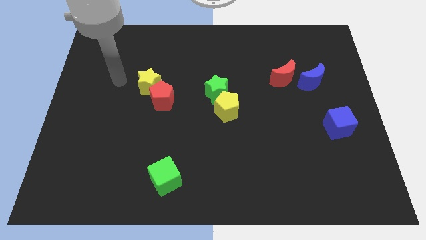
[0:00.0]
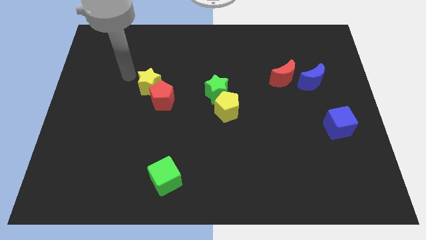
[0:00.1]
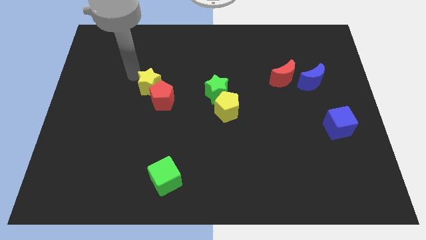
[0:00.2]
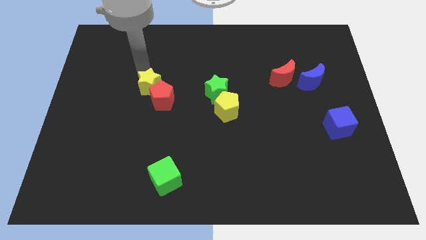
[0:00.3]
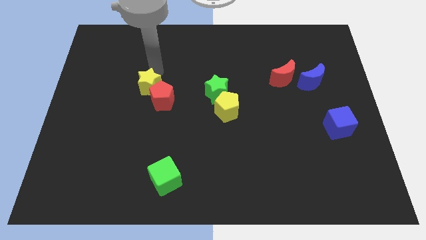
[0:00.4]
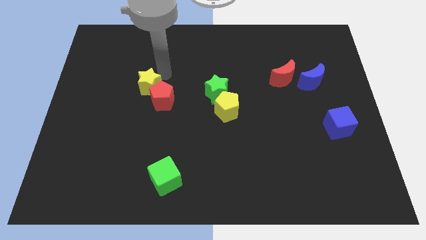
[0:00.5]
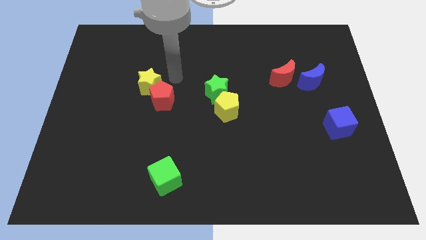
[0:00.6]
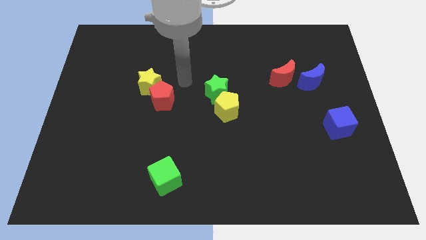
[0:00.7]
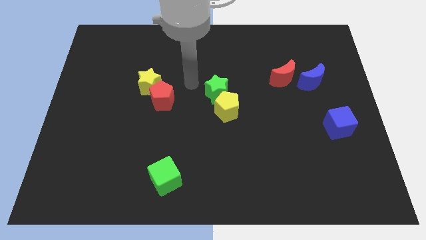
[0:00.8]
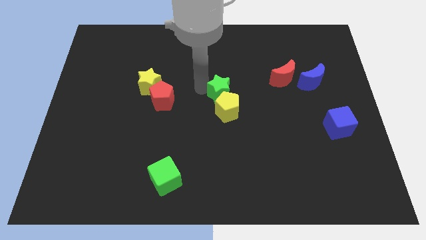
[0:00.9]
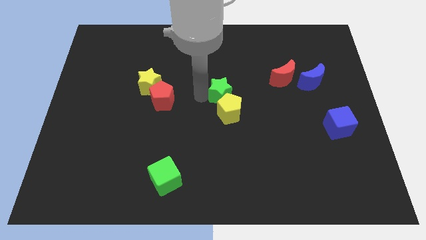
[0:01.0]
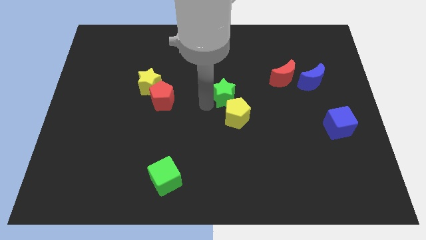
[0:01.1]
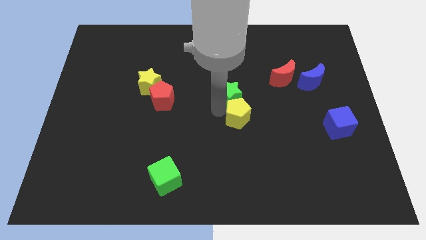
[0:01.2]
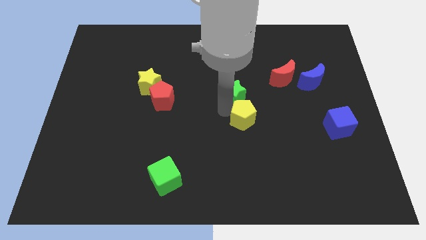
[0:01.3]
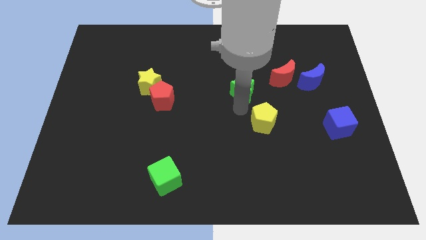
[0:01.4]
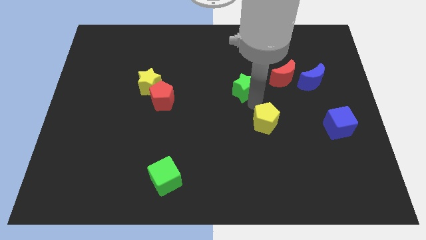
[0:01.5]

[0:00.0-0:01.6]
move the green star away from the yellow pentagon

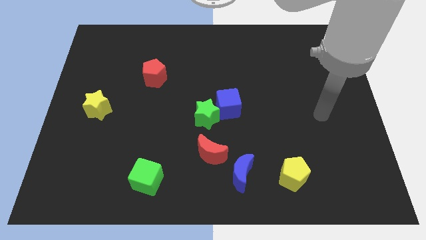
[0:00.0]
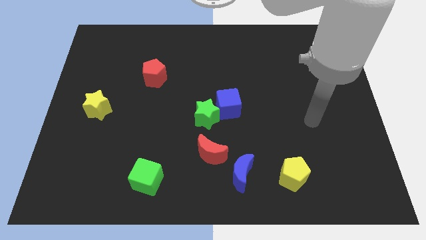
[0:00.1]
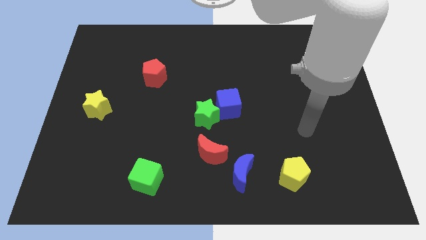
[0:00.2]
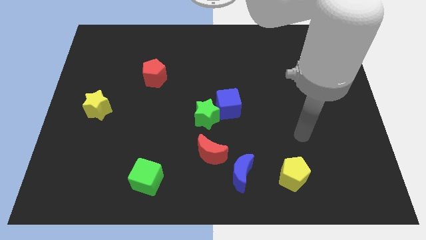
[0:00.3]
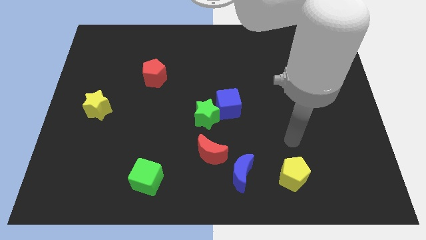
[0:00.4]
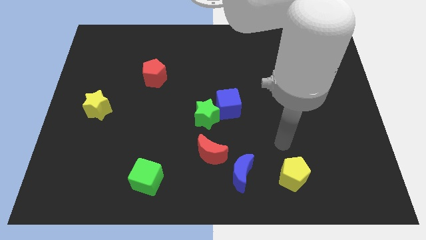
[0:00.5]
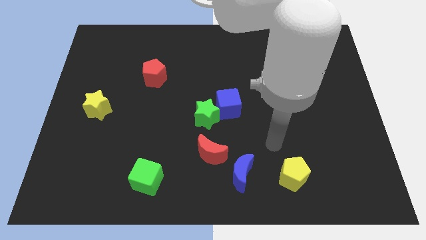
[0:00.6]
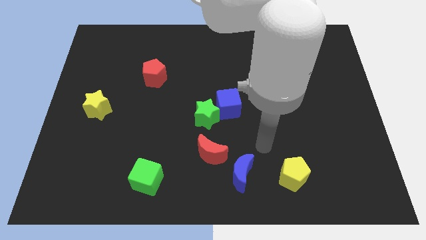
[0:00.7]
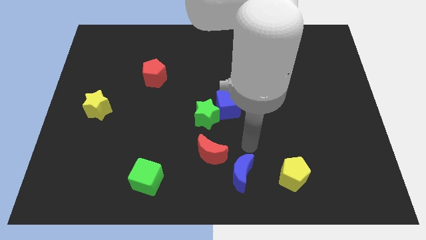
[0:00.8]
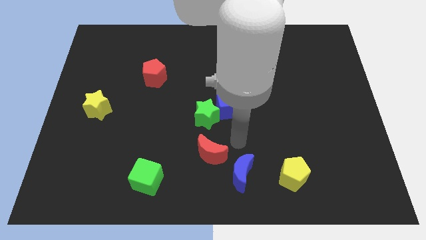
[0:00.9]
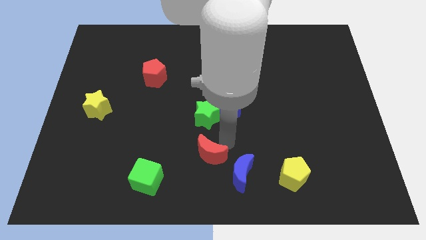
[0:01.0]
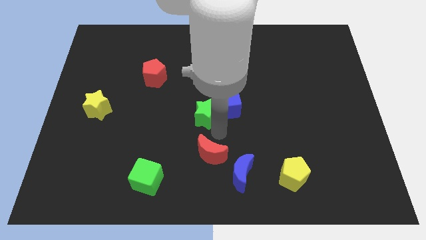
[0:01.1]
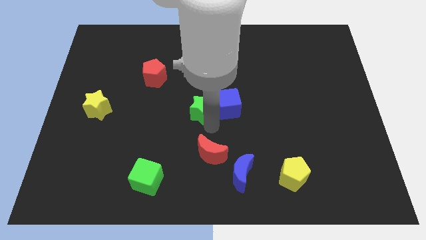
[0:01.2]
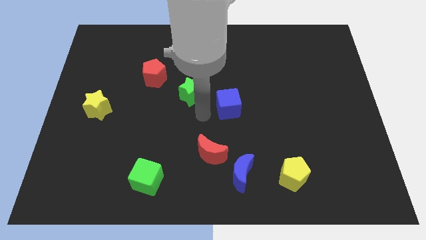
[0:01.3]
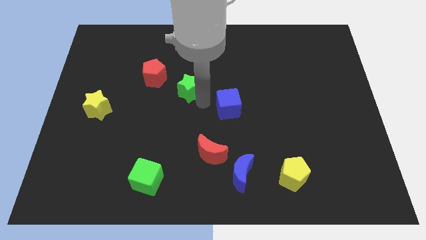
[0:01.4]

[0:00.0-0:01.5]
separate the blue cube from the green star

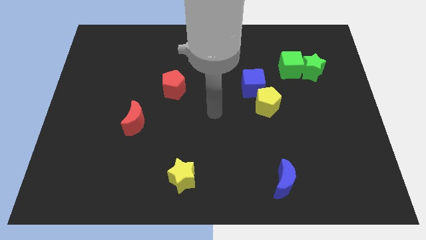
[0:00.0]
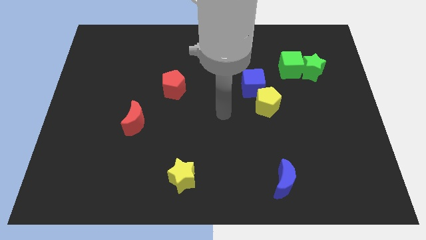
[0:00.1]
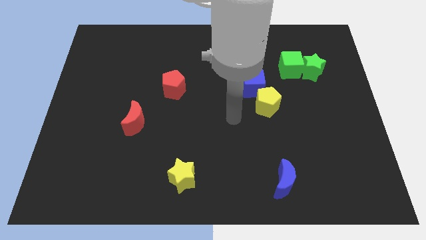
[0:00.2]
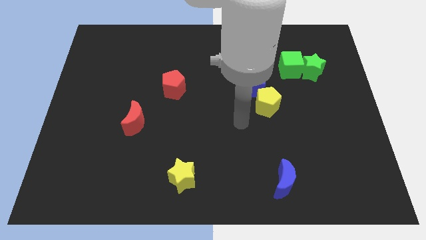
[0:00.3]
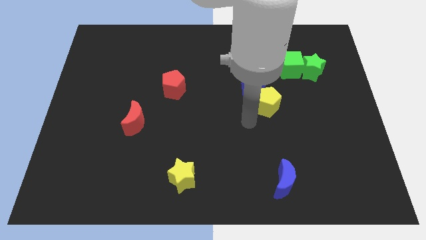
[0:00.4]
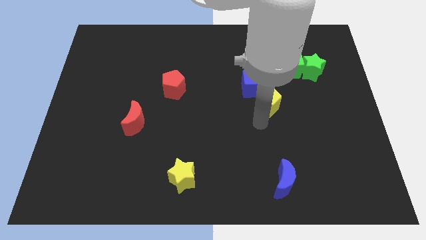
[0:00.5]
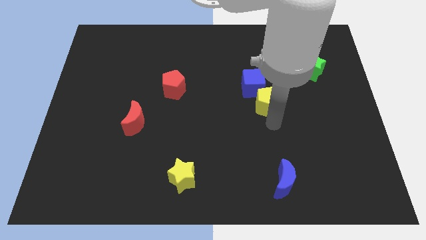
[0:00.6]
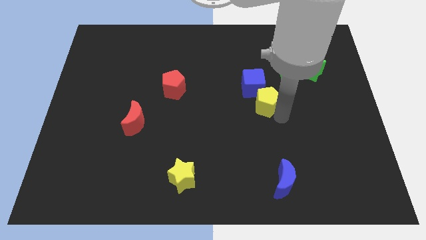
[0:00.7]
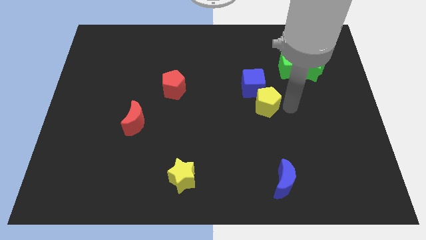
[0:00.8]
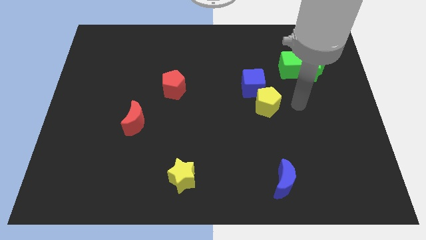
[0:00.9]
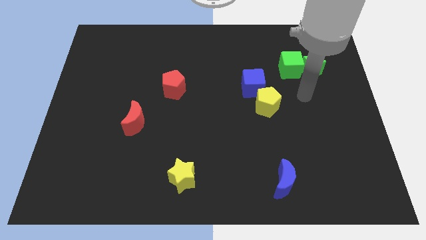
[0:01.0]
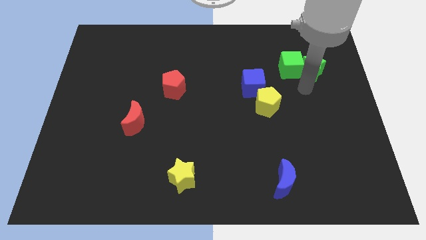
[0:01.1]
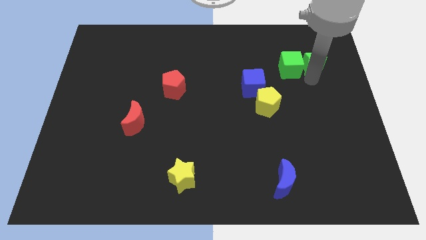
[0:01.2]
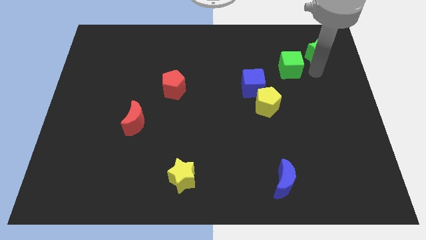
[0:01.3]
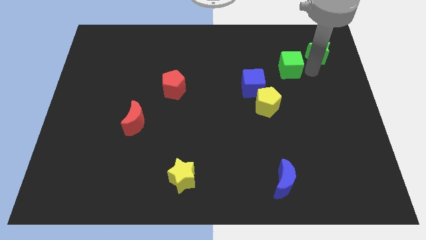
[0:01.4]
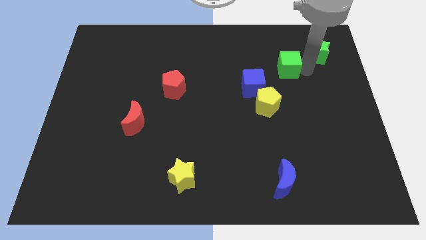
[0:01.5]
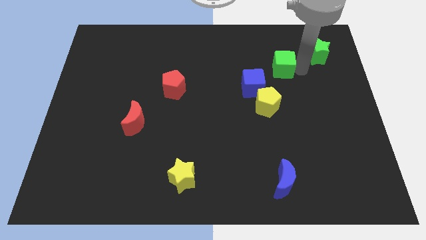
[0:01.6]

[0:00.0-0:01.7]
move the green cube away from the green star

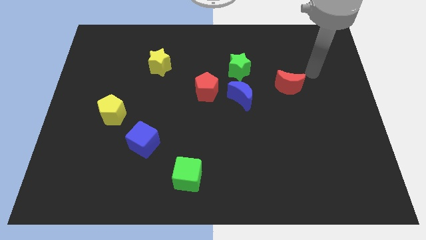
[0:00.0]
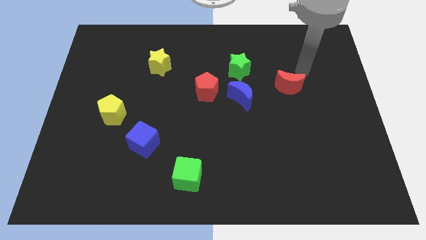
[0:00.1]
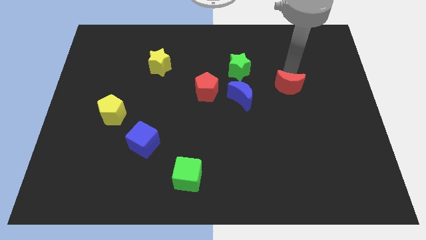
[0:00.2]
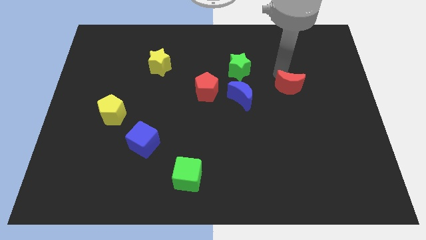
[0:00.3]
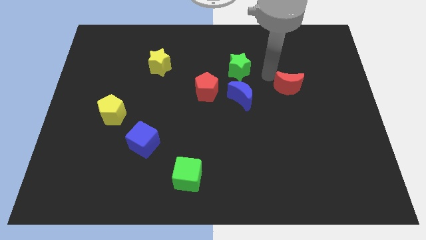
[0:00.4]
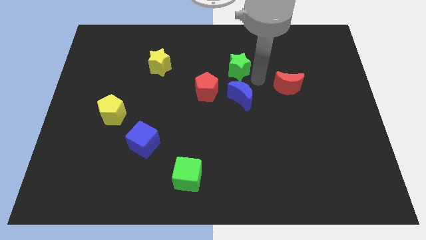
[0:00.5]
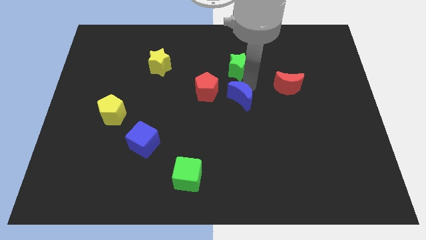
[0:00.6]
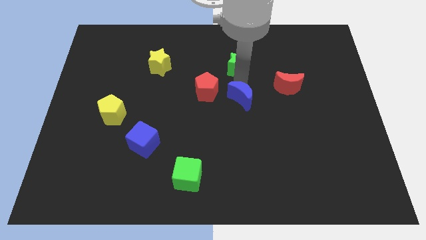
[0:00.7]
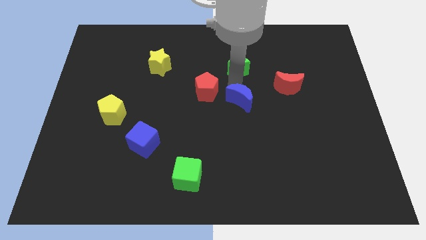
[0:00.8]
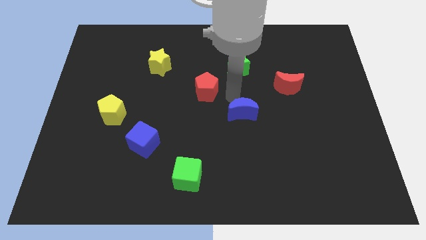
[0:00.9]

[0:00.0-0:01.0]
pull the red pentagon apart from the blue moon

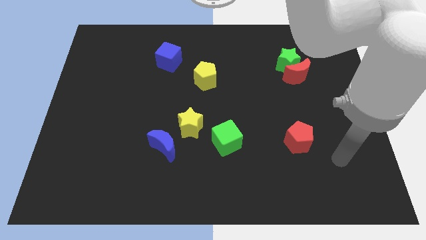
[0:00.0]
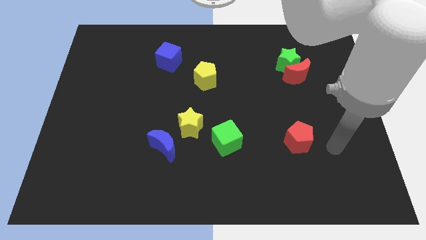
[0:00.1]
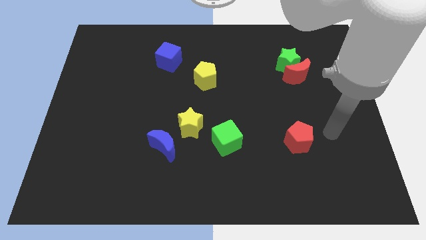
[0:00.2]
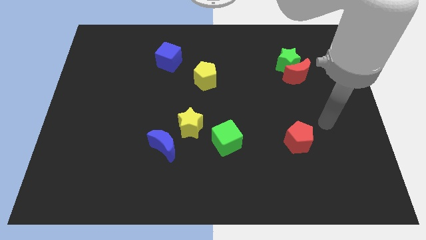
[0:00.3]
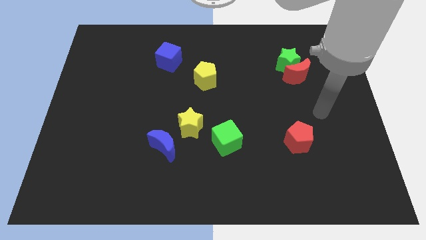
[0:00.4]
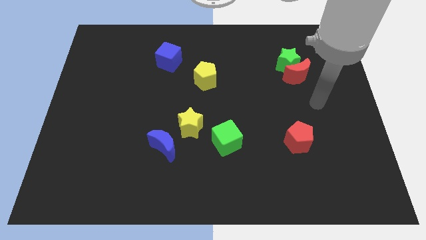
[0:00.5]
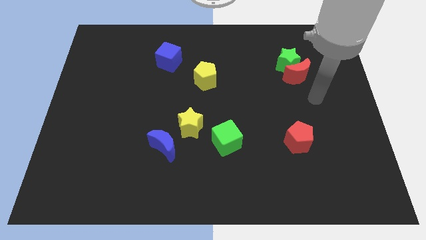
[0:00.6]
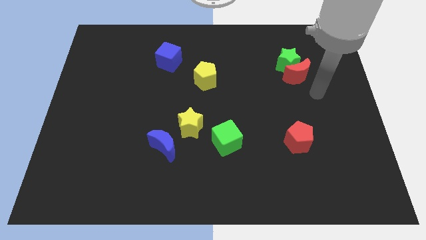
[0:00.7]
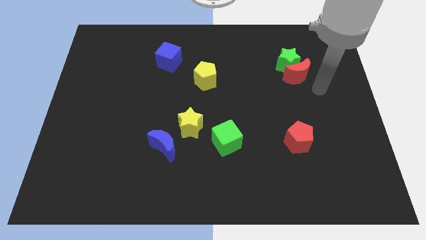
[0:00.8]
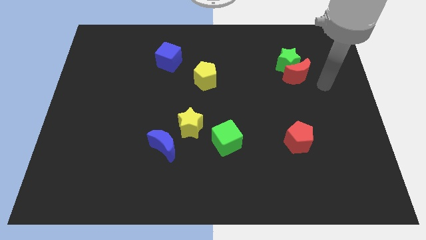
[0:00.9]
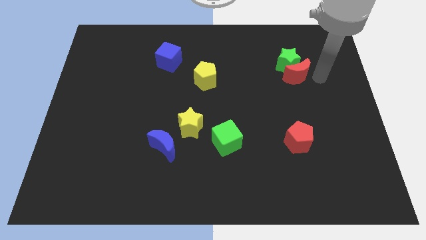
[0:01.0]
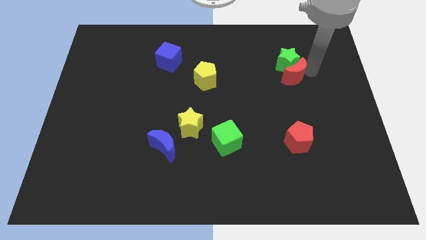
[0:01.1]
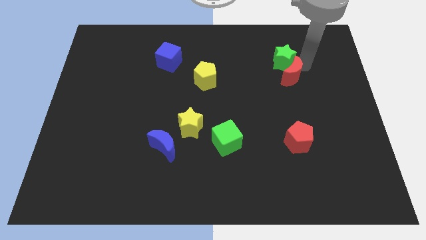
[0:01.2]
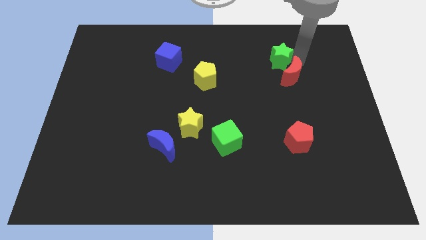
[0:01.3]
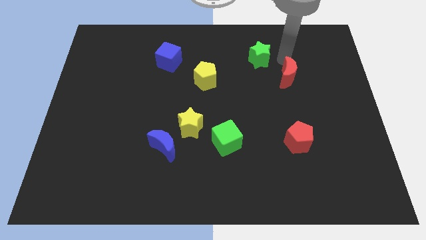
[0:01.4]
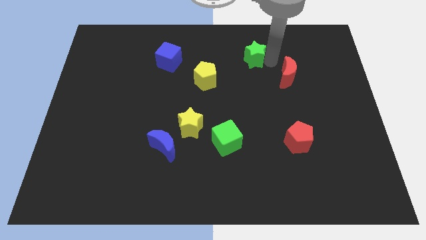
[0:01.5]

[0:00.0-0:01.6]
separate the red moon from the green star

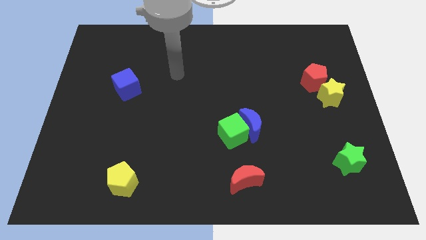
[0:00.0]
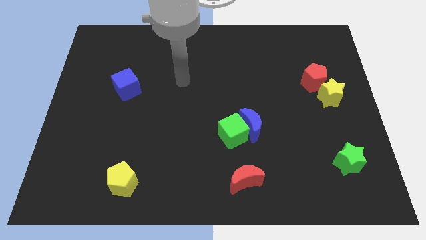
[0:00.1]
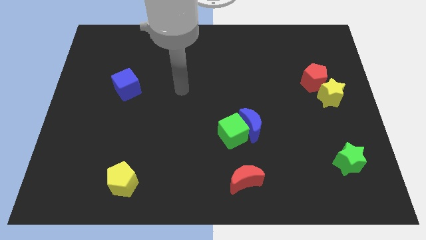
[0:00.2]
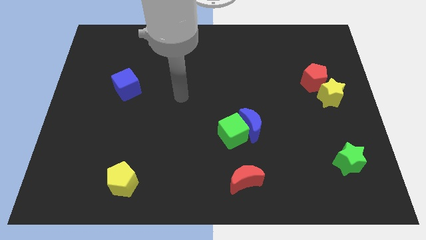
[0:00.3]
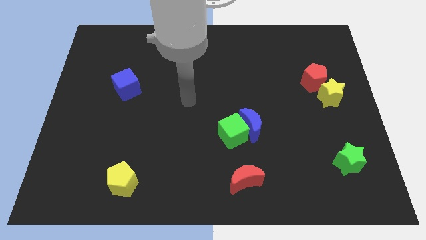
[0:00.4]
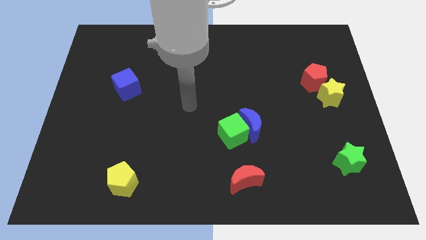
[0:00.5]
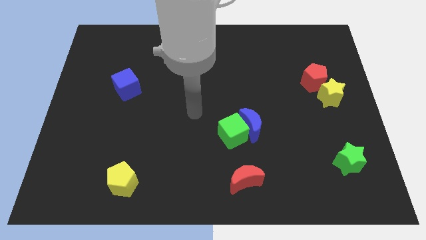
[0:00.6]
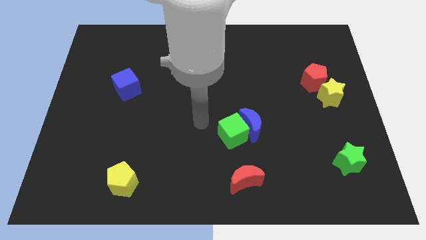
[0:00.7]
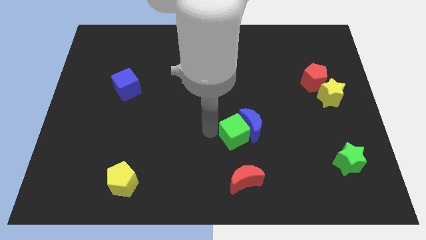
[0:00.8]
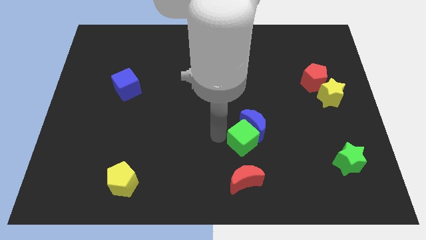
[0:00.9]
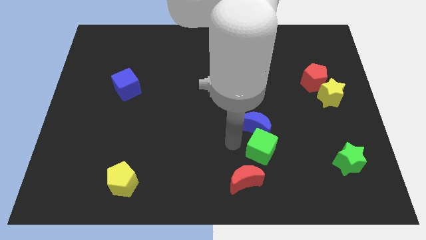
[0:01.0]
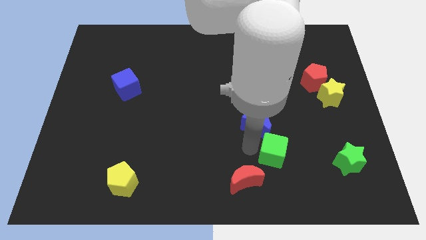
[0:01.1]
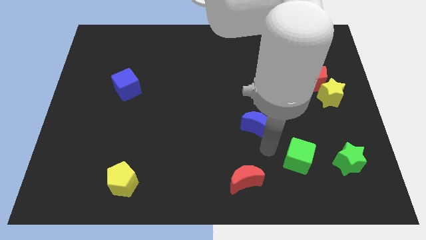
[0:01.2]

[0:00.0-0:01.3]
pull the blue moon apart from the green cube

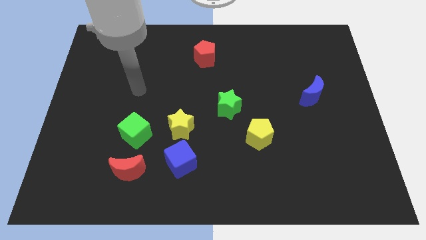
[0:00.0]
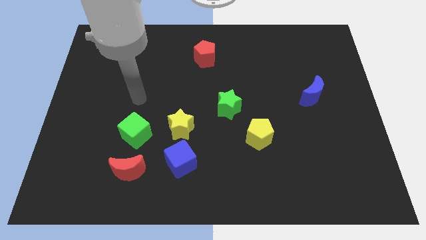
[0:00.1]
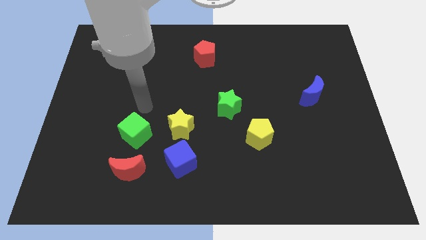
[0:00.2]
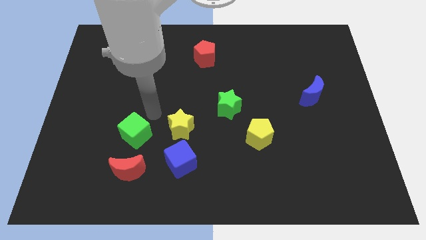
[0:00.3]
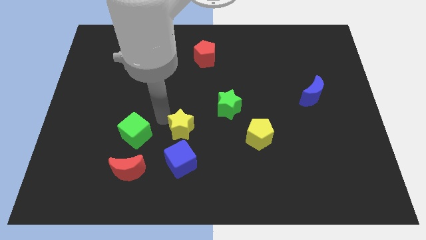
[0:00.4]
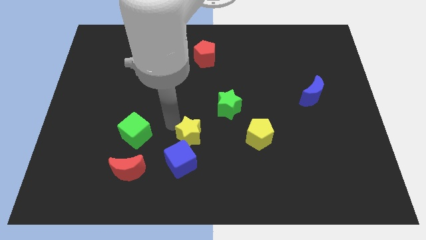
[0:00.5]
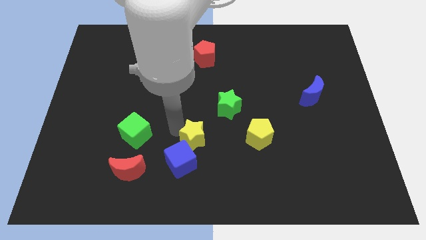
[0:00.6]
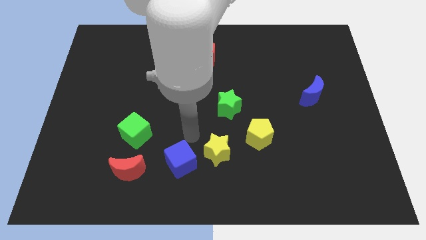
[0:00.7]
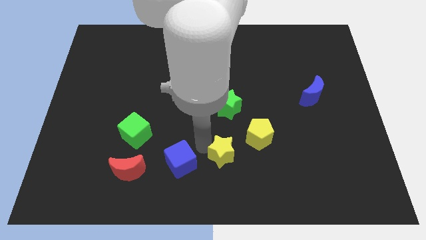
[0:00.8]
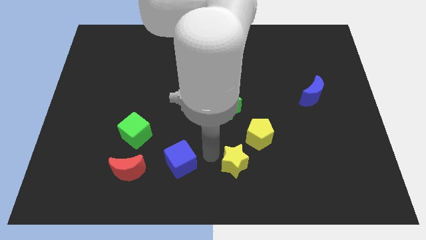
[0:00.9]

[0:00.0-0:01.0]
pull the blue cube apart from the yellow star
